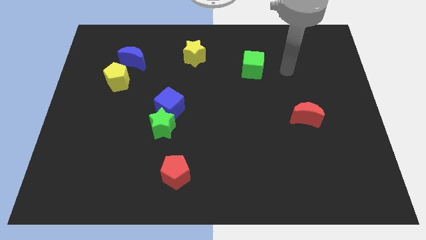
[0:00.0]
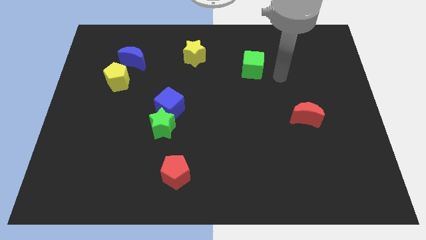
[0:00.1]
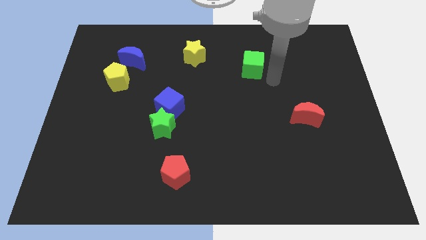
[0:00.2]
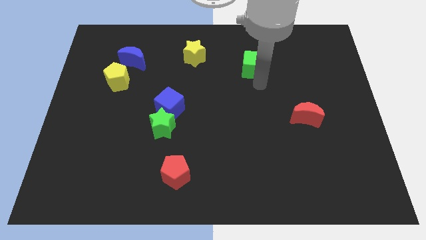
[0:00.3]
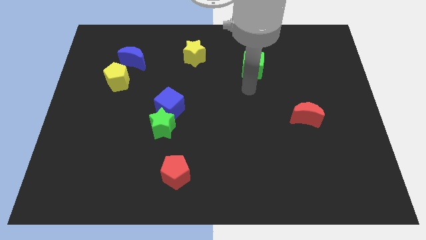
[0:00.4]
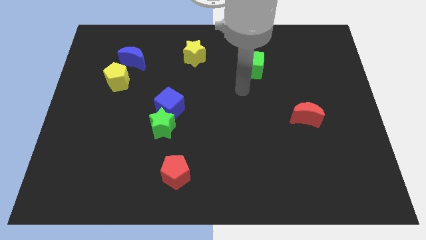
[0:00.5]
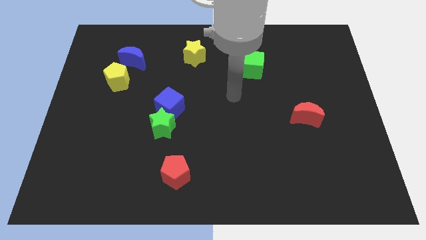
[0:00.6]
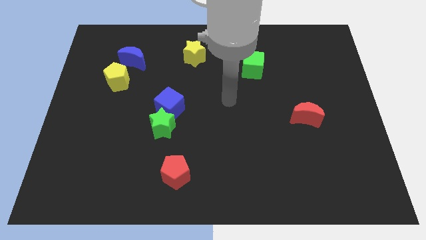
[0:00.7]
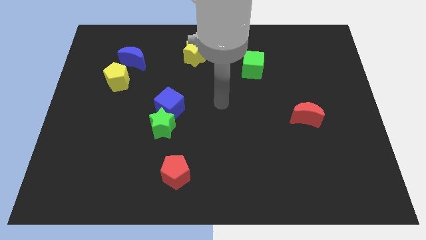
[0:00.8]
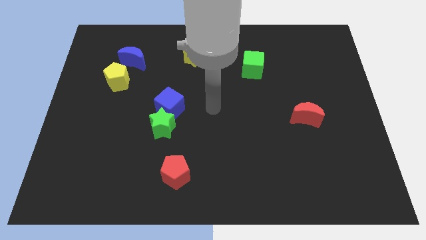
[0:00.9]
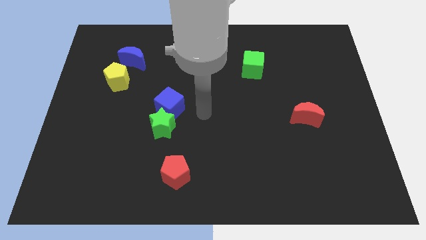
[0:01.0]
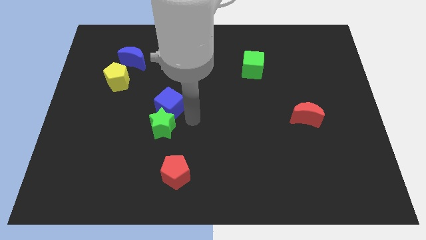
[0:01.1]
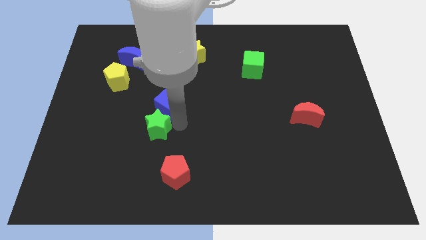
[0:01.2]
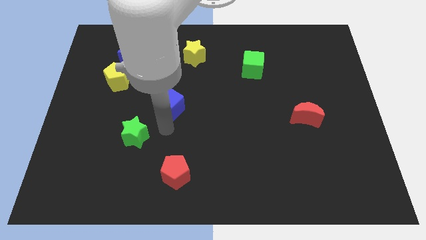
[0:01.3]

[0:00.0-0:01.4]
separate the blue cube from the green star

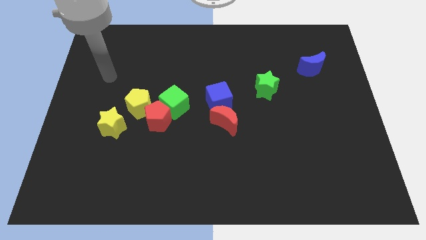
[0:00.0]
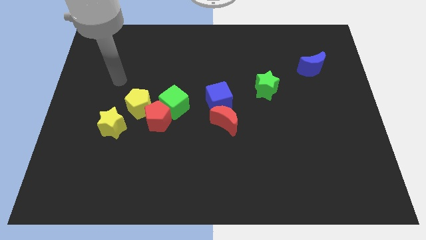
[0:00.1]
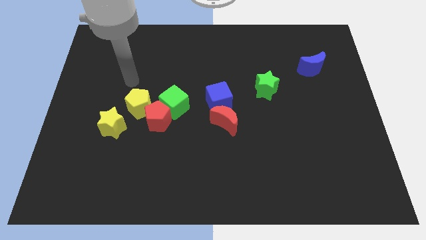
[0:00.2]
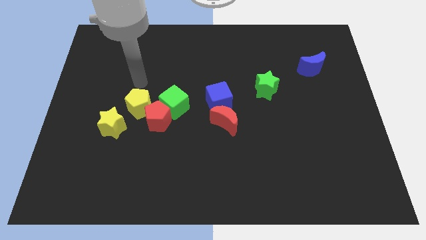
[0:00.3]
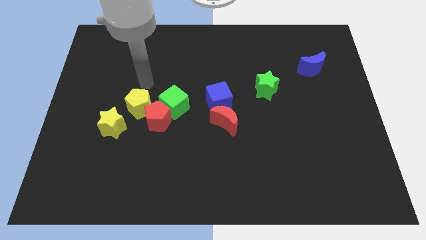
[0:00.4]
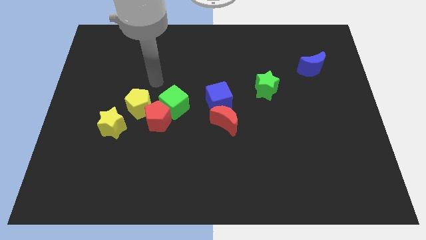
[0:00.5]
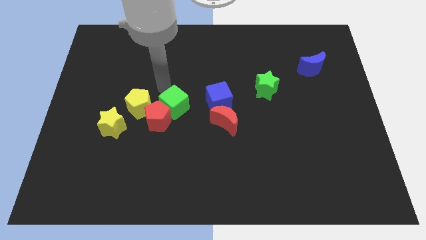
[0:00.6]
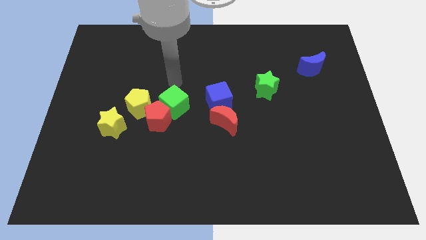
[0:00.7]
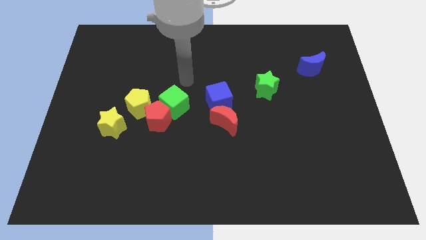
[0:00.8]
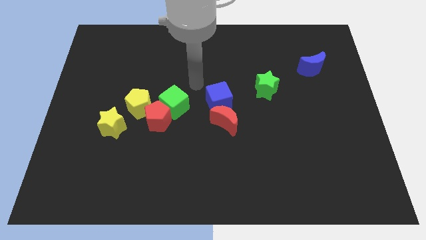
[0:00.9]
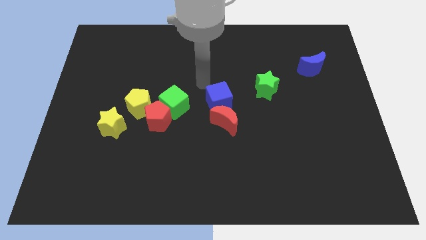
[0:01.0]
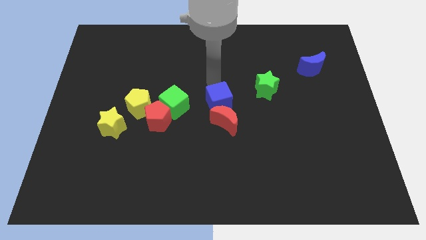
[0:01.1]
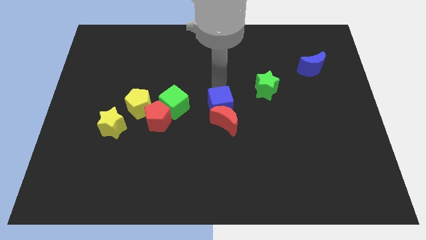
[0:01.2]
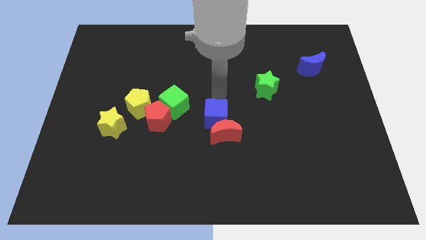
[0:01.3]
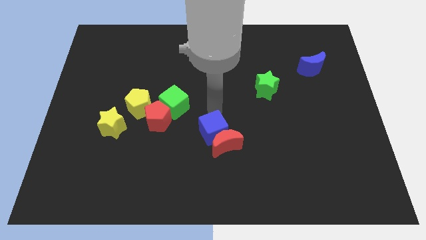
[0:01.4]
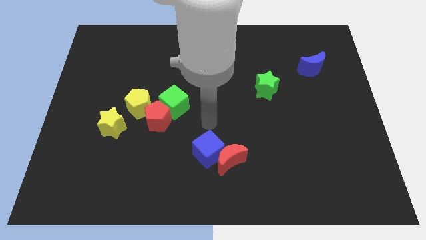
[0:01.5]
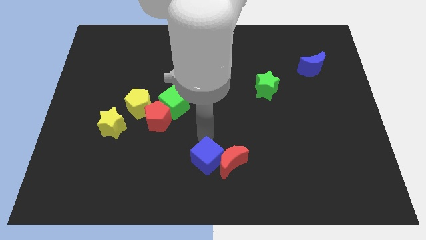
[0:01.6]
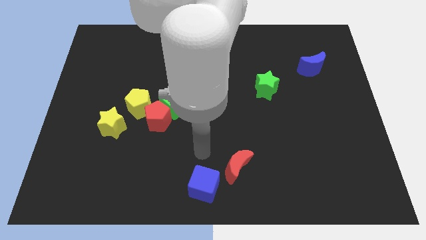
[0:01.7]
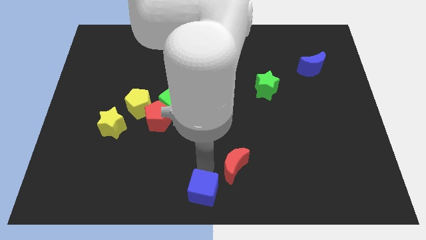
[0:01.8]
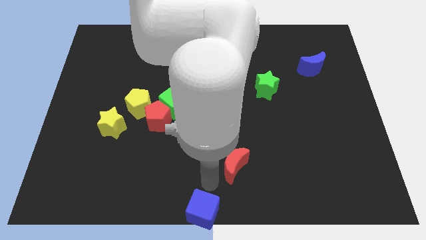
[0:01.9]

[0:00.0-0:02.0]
separate the red moon from the blue cube

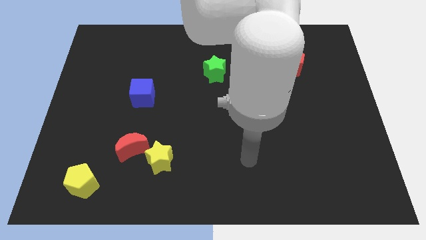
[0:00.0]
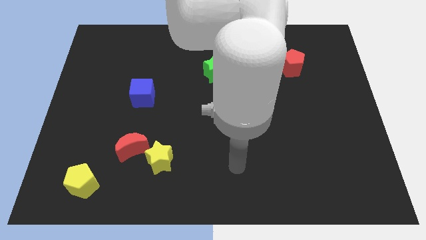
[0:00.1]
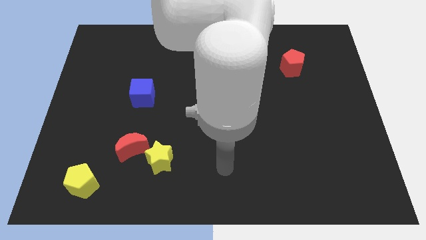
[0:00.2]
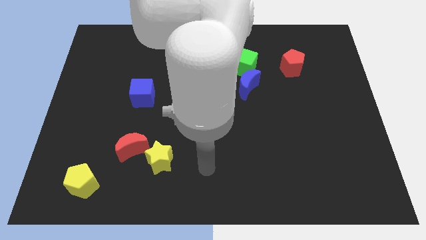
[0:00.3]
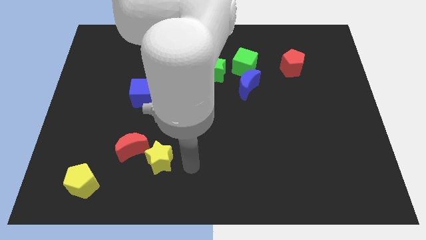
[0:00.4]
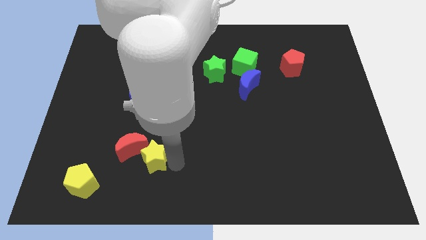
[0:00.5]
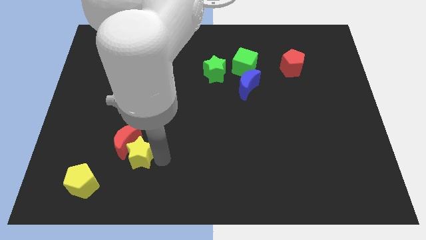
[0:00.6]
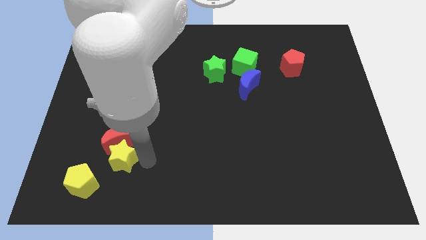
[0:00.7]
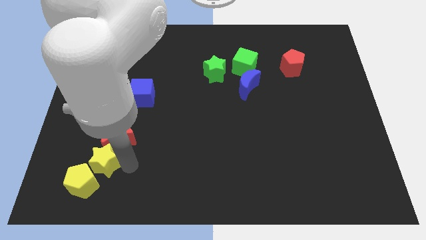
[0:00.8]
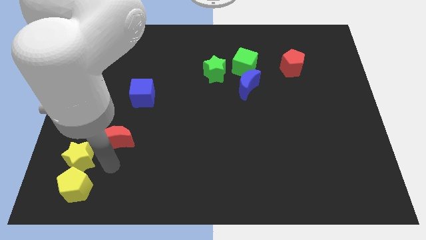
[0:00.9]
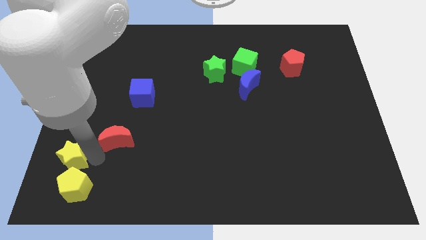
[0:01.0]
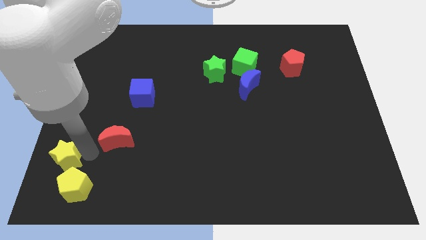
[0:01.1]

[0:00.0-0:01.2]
pull the red moon apart from the yellow star

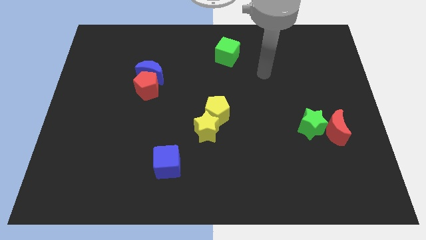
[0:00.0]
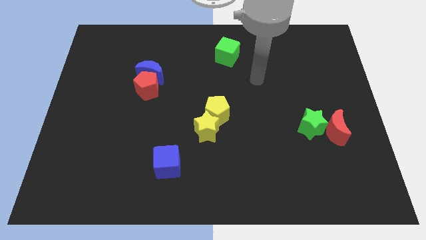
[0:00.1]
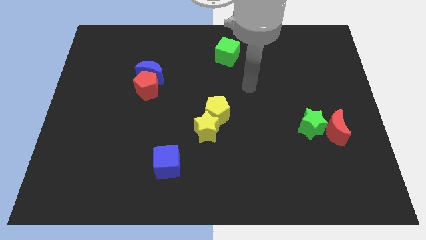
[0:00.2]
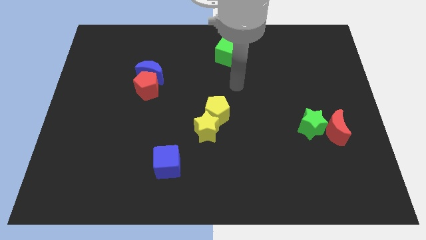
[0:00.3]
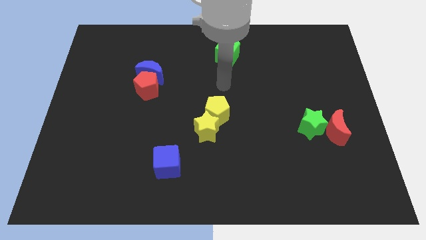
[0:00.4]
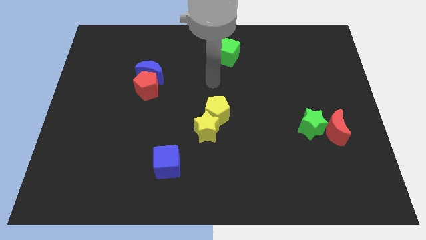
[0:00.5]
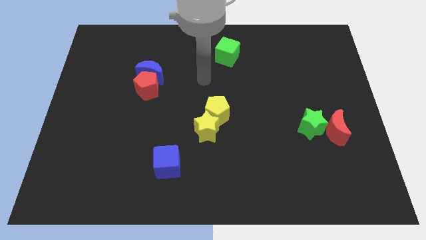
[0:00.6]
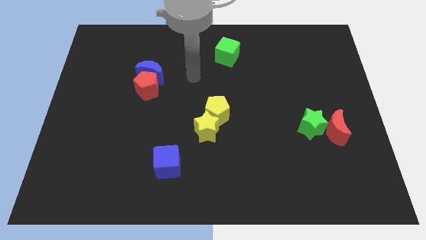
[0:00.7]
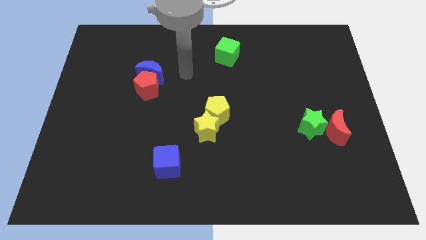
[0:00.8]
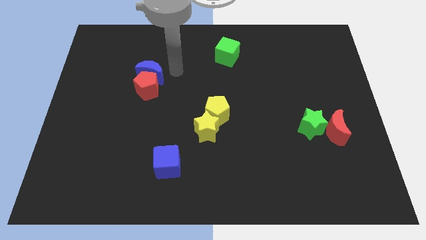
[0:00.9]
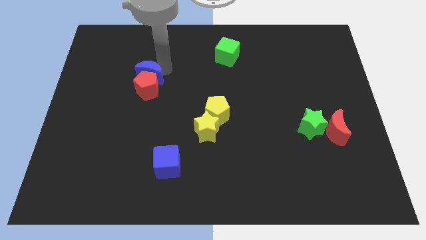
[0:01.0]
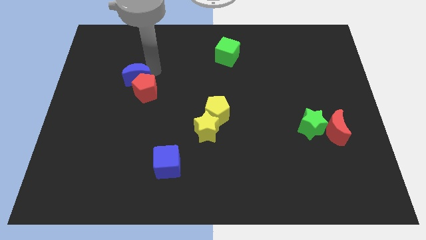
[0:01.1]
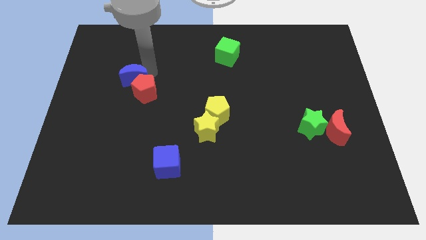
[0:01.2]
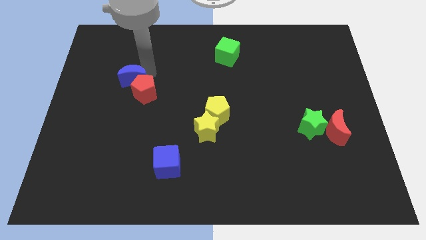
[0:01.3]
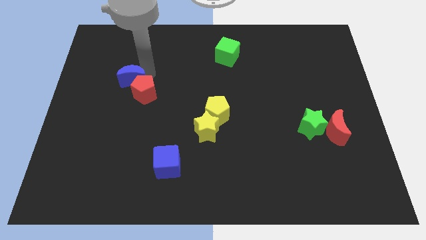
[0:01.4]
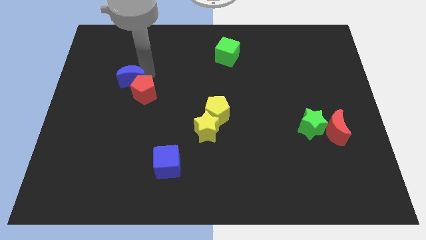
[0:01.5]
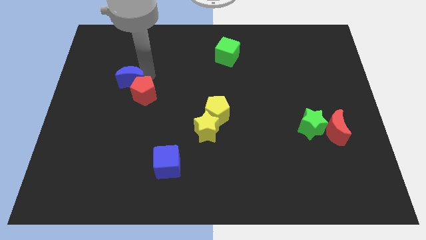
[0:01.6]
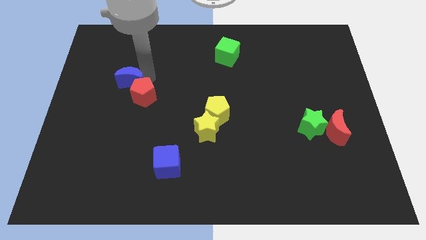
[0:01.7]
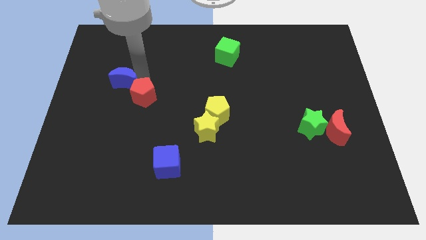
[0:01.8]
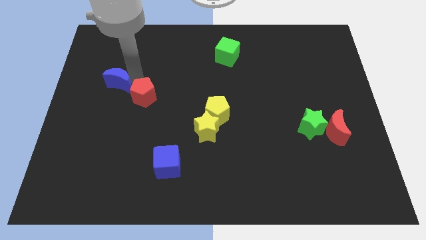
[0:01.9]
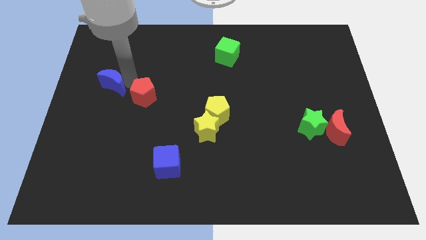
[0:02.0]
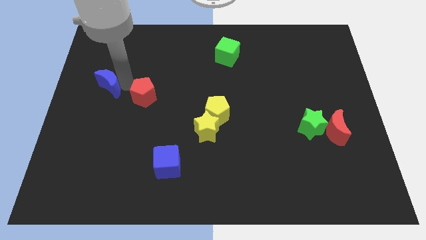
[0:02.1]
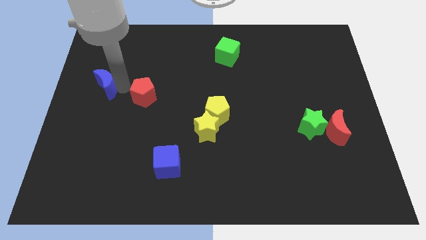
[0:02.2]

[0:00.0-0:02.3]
separate the red pentagon from the blue moon

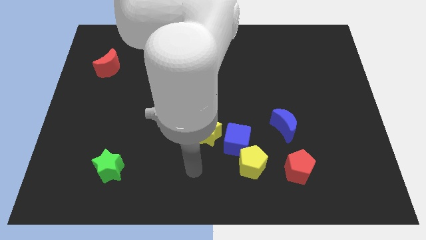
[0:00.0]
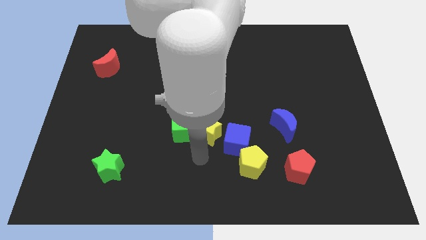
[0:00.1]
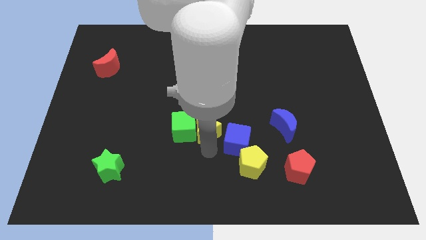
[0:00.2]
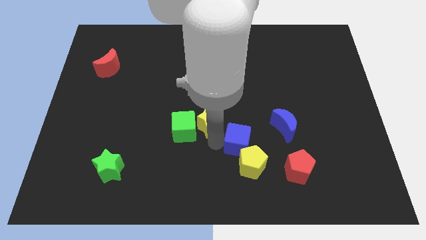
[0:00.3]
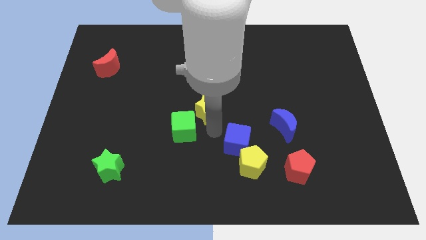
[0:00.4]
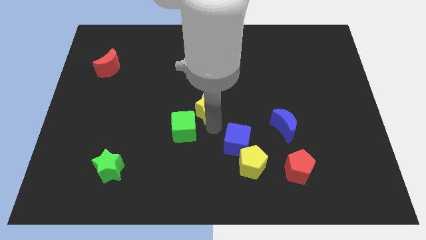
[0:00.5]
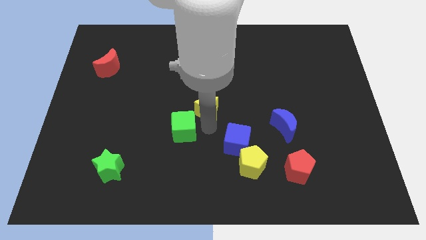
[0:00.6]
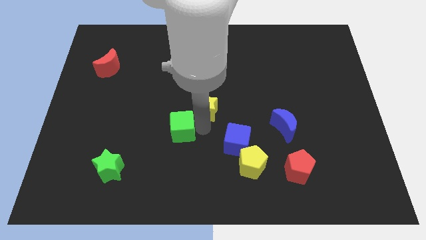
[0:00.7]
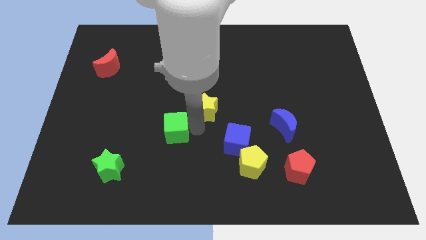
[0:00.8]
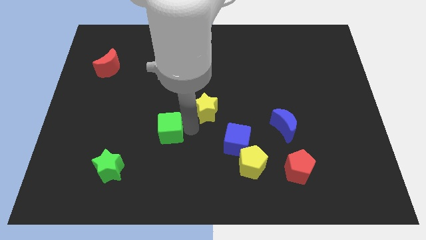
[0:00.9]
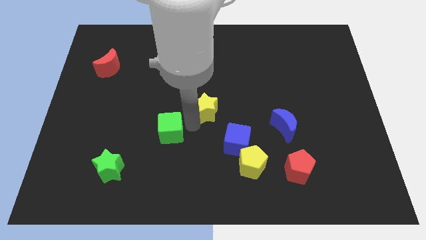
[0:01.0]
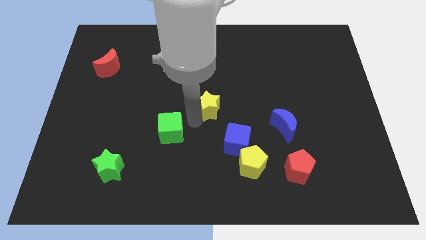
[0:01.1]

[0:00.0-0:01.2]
separate the green cube from the yellow star

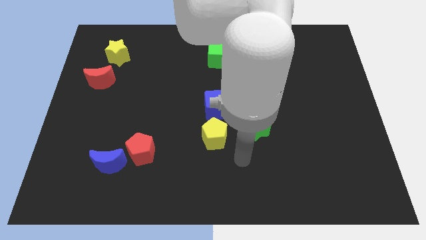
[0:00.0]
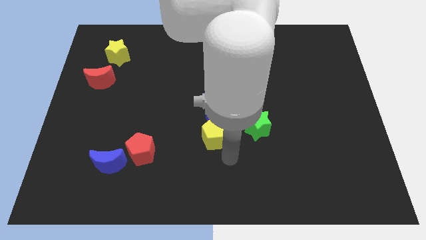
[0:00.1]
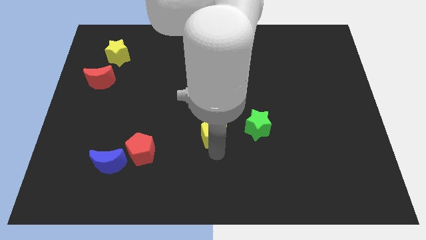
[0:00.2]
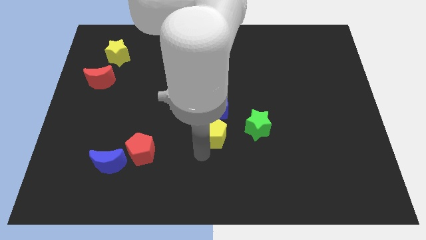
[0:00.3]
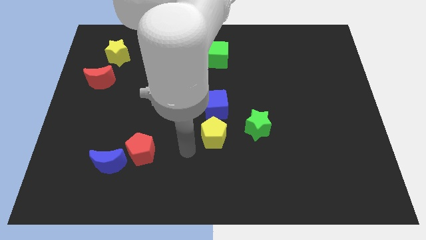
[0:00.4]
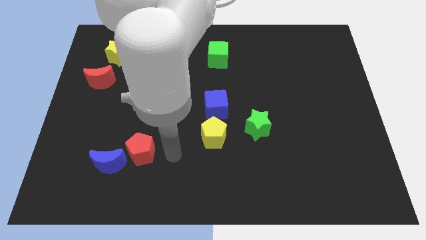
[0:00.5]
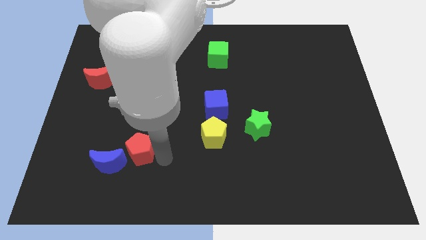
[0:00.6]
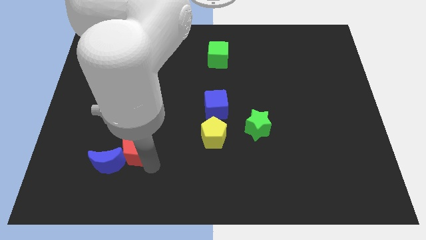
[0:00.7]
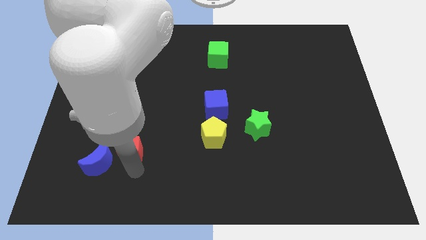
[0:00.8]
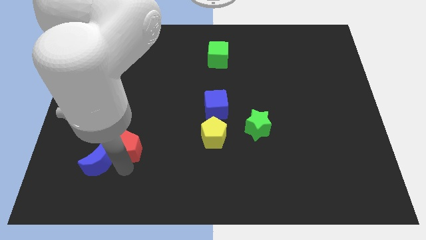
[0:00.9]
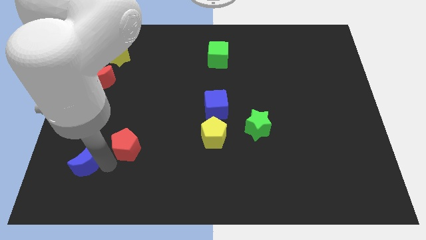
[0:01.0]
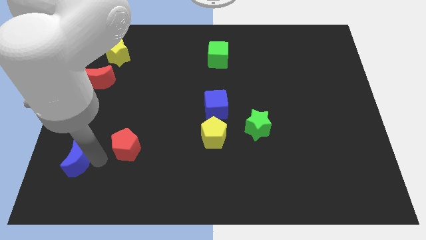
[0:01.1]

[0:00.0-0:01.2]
move the red pentagon away from the blue moon
